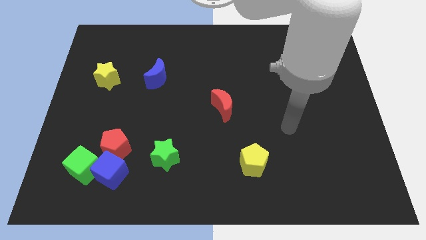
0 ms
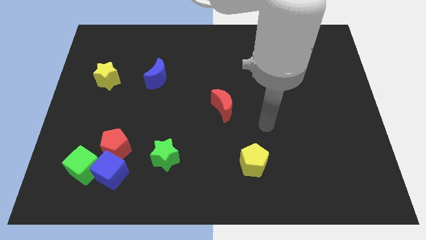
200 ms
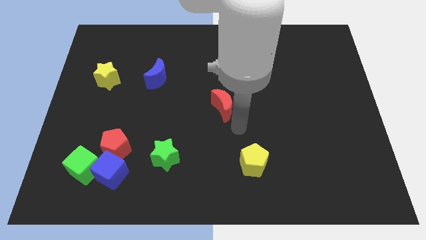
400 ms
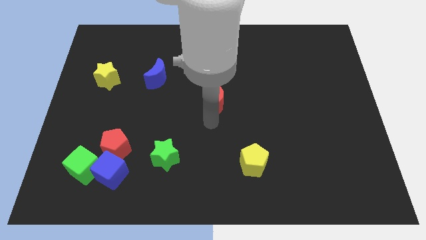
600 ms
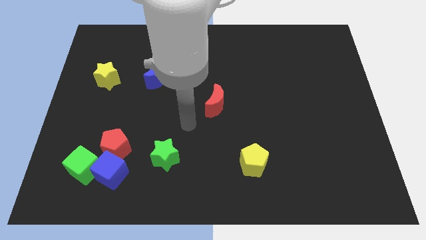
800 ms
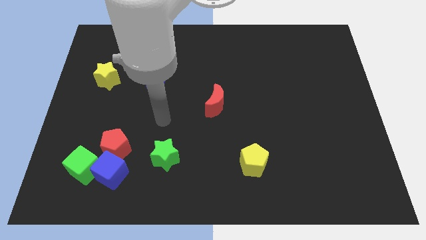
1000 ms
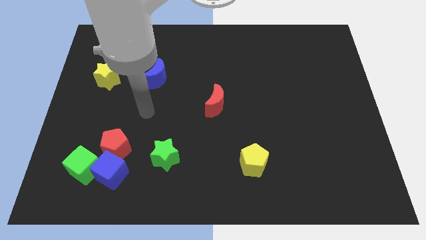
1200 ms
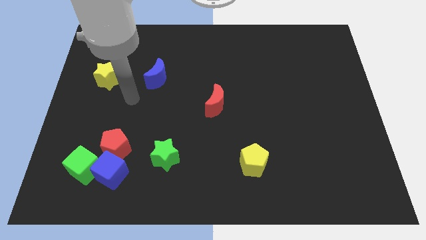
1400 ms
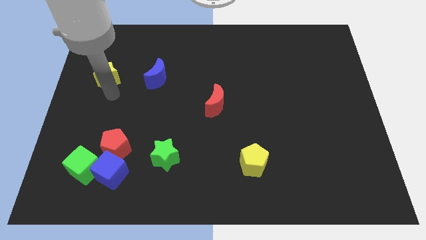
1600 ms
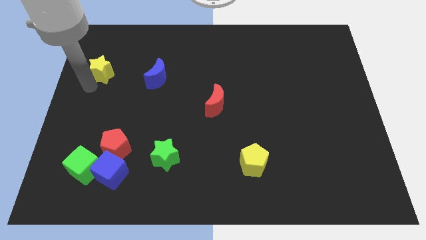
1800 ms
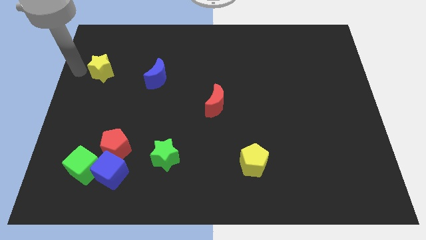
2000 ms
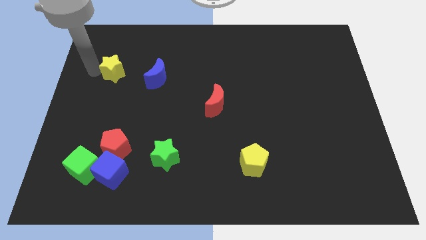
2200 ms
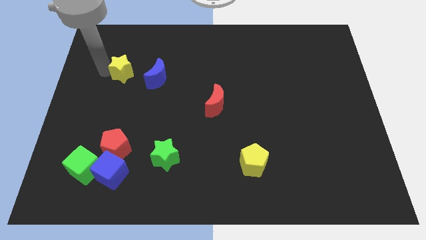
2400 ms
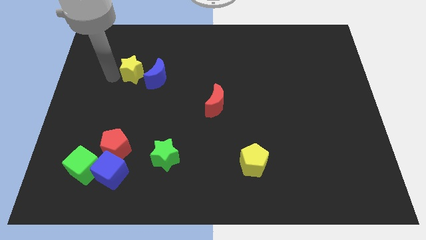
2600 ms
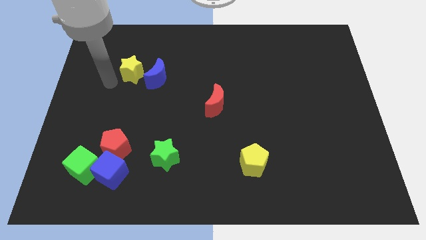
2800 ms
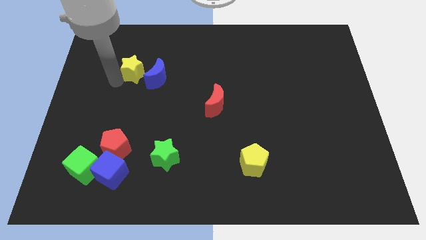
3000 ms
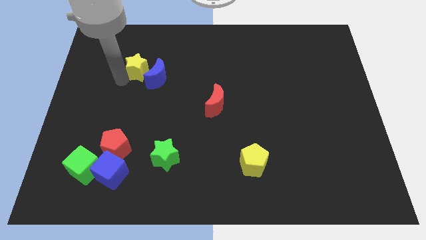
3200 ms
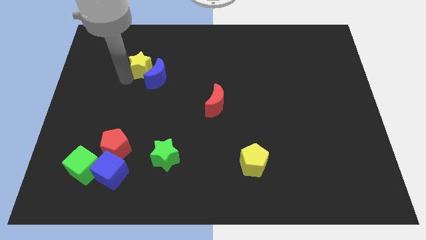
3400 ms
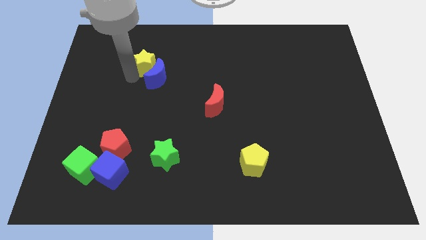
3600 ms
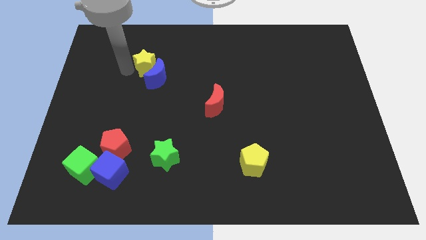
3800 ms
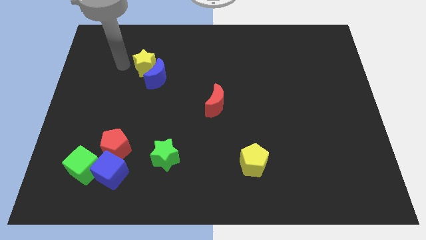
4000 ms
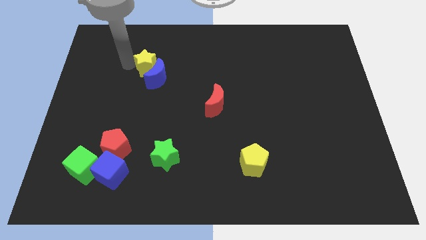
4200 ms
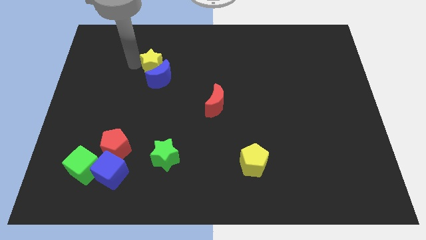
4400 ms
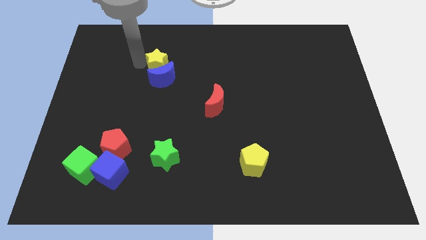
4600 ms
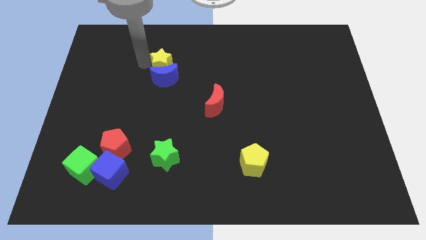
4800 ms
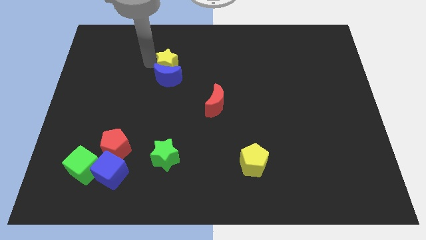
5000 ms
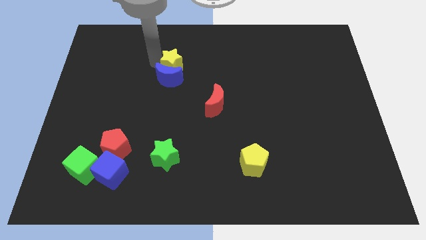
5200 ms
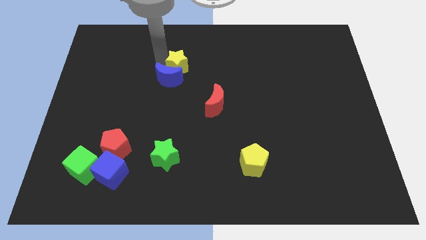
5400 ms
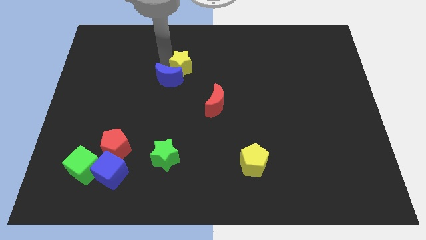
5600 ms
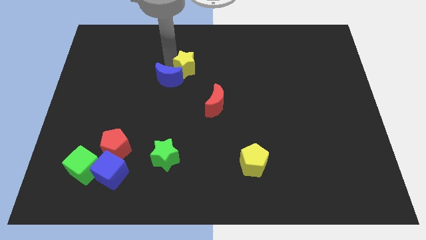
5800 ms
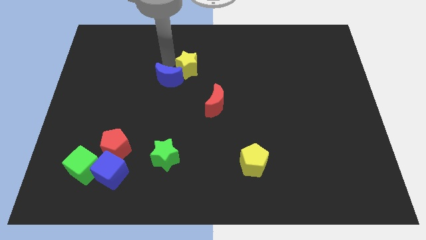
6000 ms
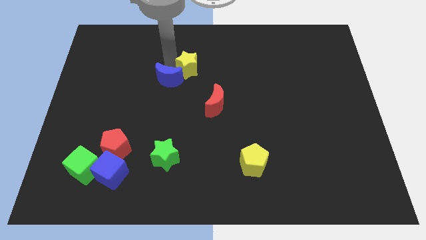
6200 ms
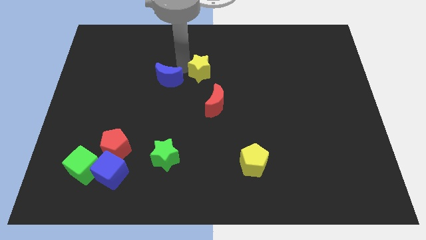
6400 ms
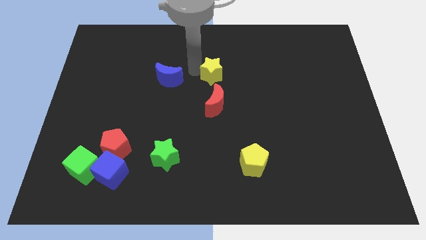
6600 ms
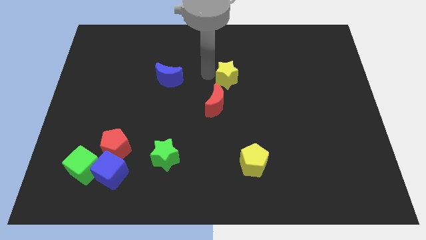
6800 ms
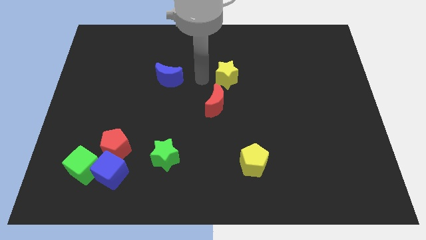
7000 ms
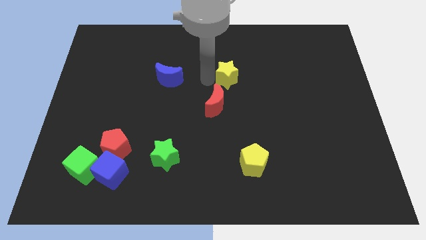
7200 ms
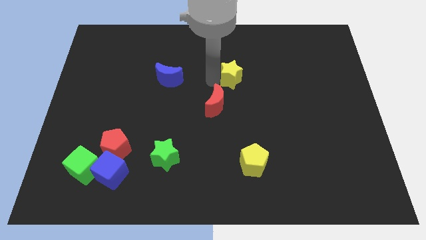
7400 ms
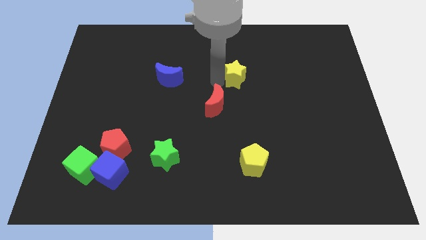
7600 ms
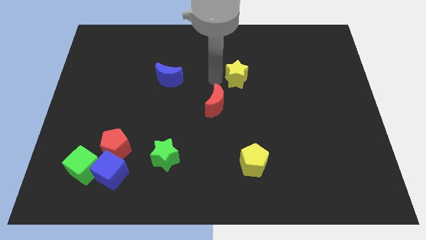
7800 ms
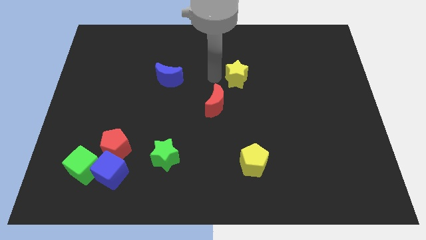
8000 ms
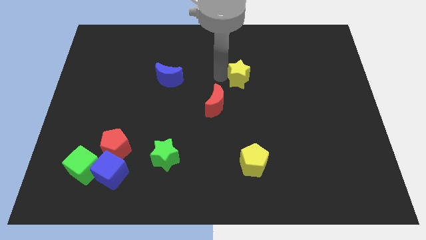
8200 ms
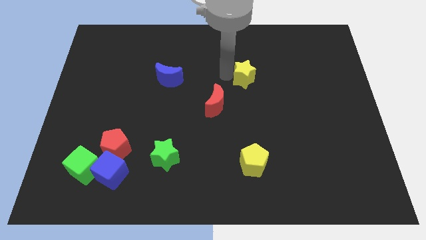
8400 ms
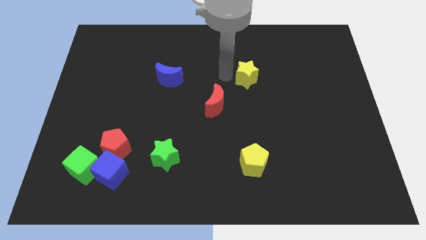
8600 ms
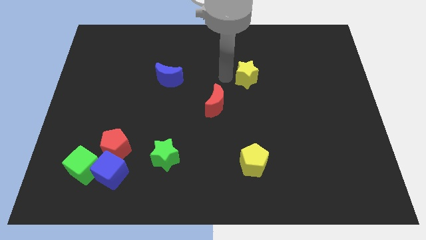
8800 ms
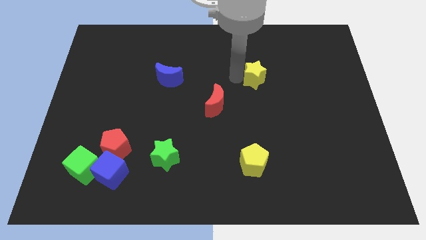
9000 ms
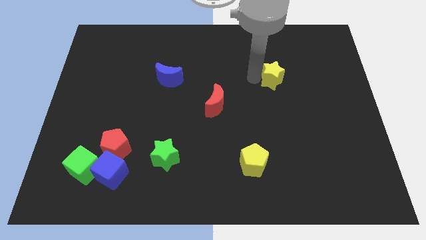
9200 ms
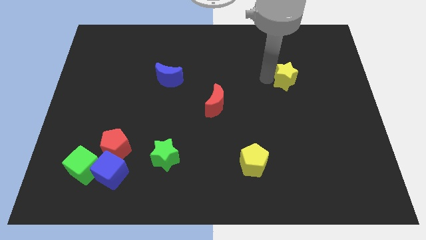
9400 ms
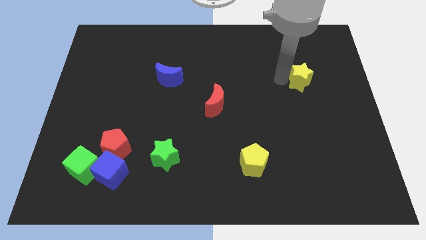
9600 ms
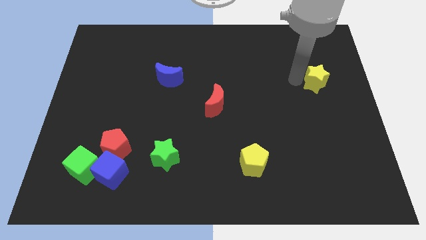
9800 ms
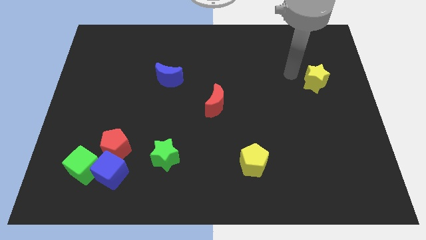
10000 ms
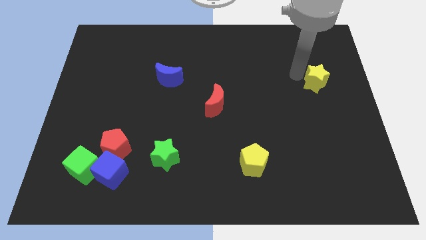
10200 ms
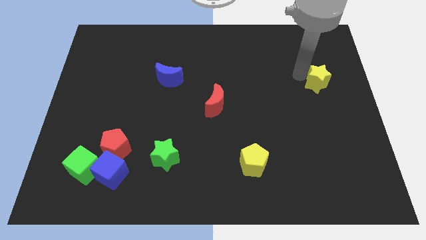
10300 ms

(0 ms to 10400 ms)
slide the yellow star to the center right

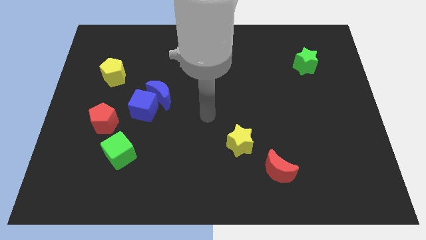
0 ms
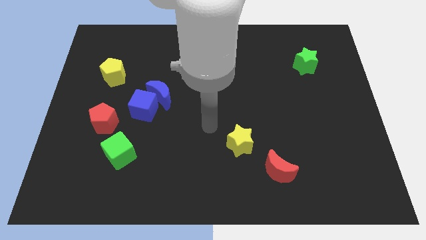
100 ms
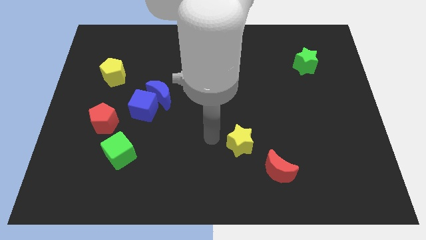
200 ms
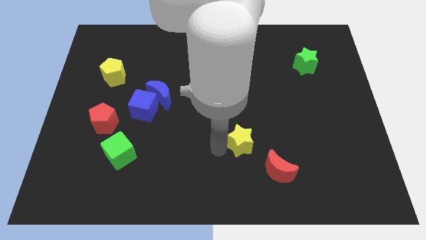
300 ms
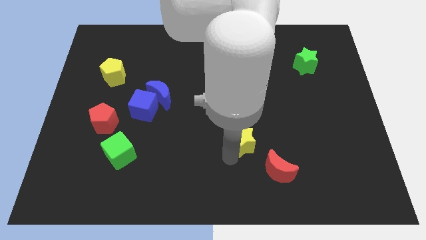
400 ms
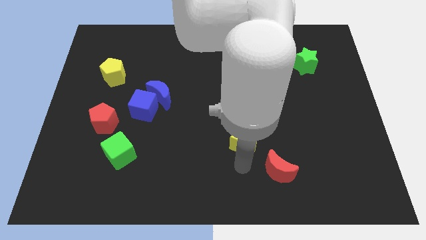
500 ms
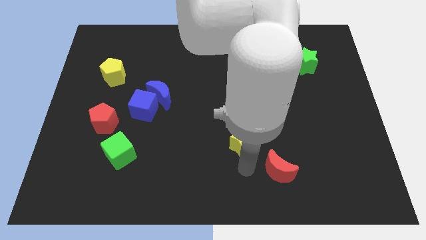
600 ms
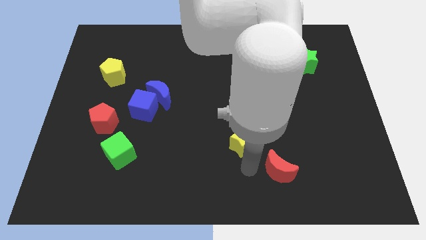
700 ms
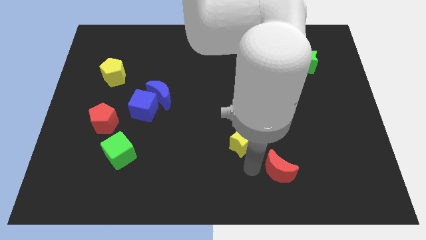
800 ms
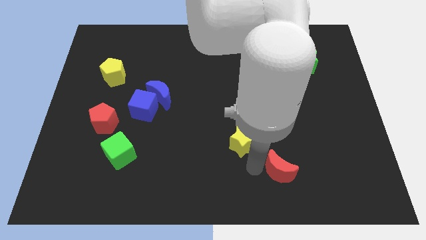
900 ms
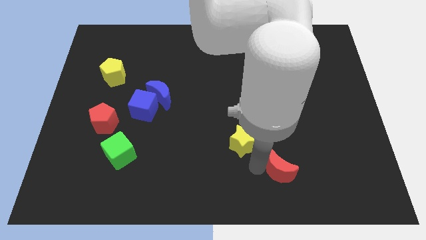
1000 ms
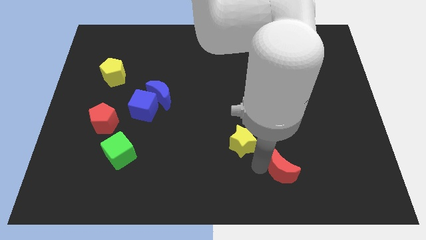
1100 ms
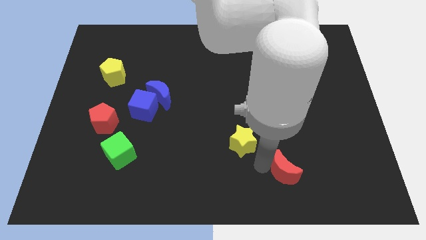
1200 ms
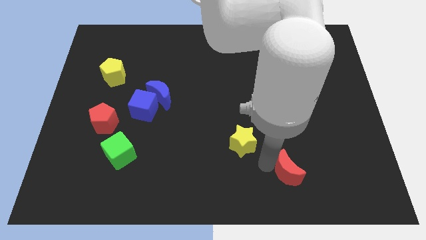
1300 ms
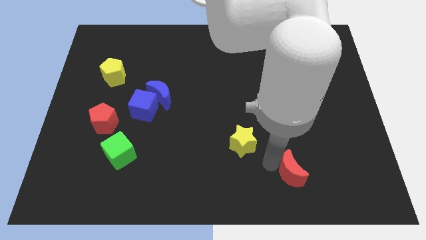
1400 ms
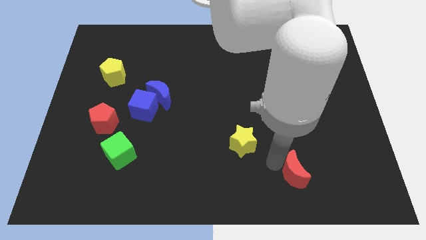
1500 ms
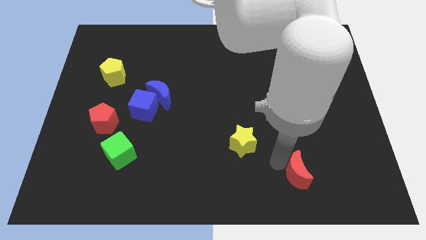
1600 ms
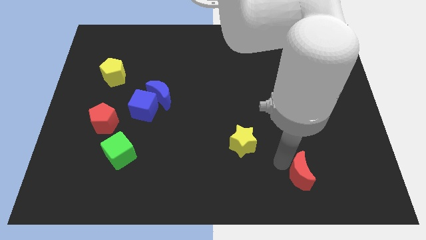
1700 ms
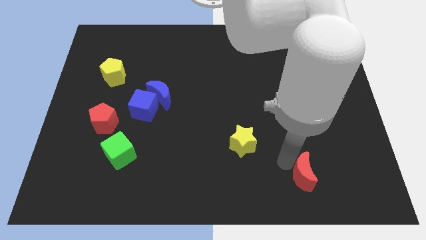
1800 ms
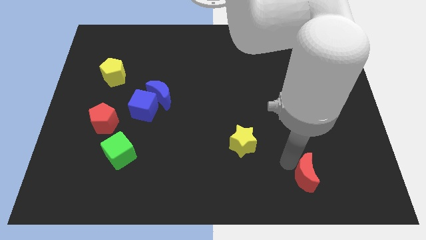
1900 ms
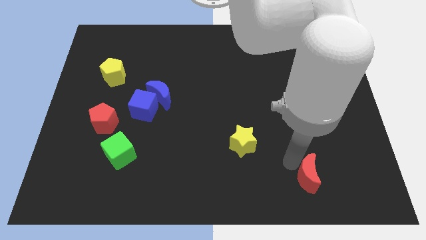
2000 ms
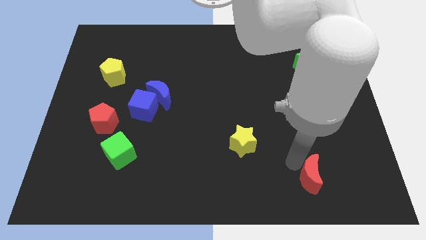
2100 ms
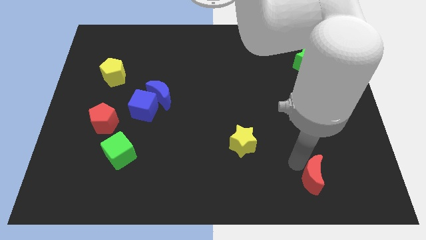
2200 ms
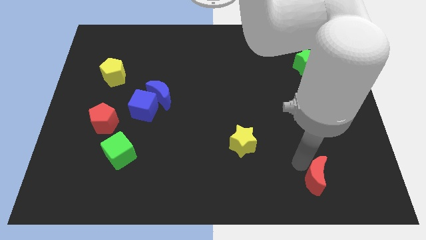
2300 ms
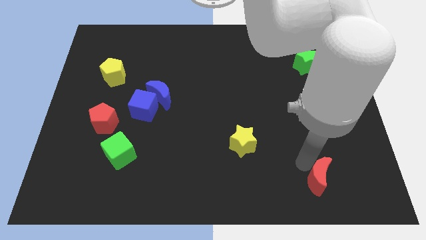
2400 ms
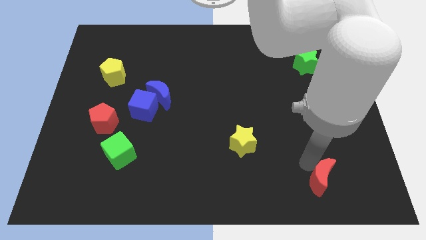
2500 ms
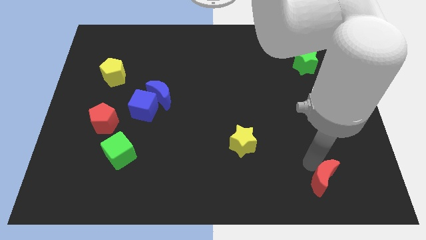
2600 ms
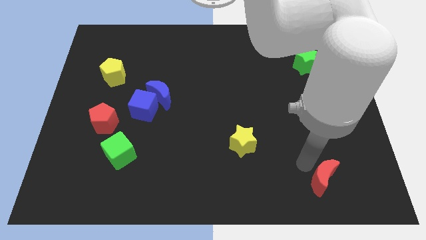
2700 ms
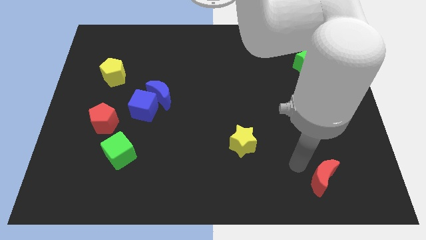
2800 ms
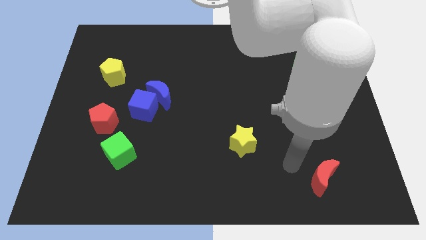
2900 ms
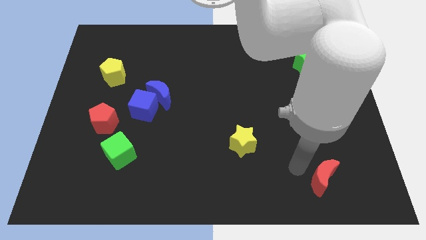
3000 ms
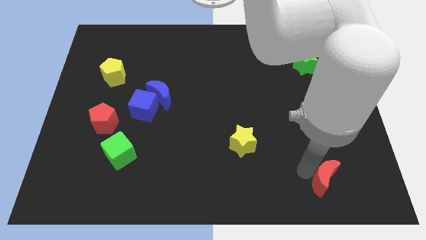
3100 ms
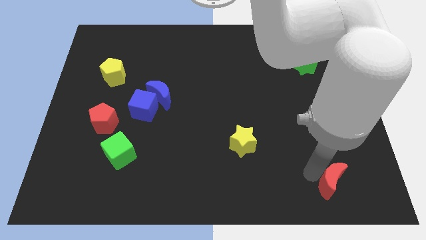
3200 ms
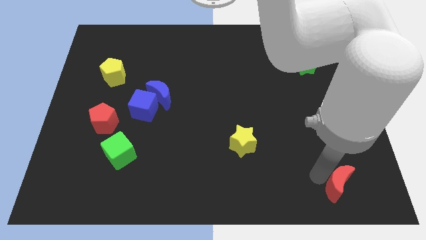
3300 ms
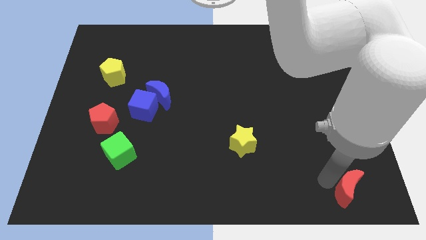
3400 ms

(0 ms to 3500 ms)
push the red moon to the lower right corner
